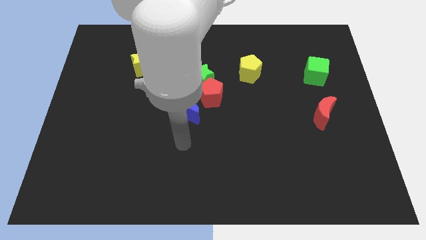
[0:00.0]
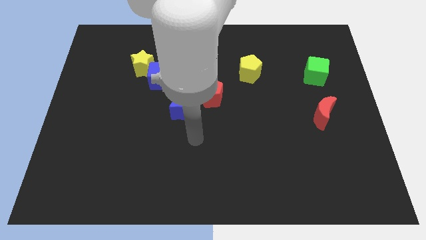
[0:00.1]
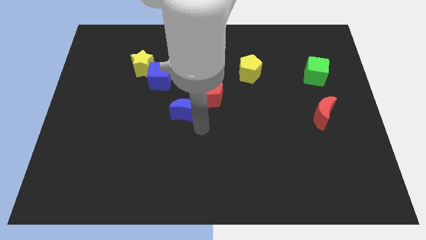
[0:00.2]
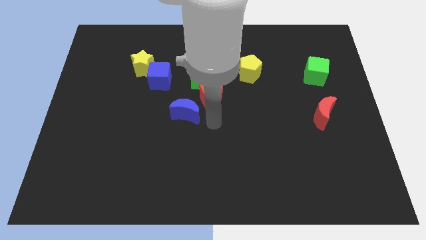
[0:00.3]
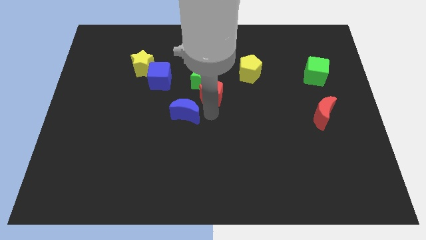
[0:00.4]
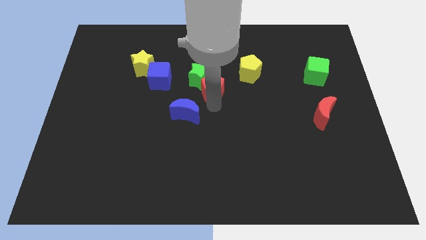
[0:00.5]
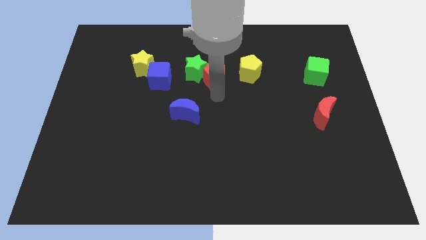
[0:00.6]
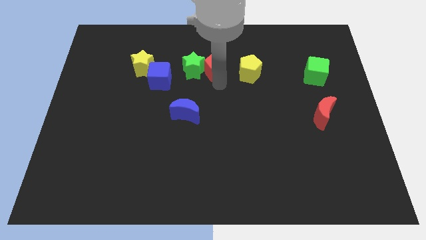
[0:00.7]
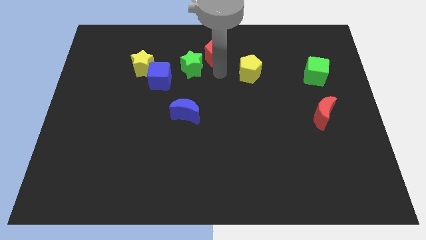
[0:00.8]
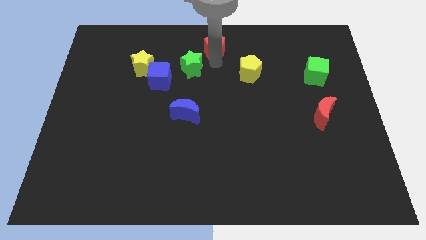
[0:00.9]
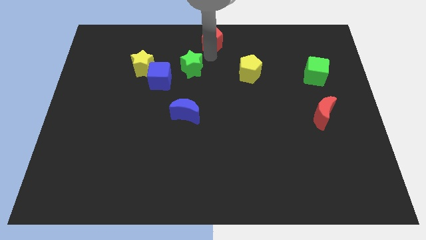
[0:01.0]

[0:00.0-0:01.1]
pull the green star apart from the red pentagon

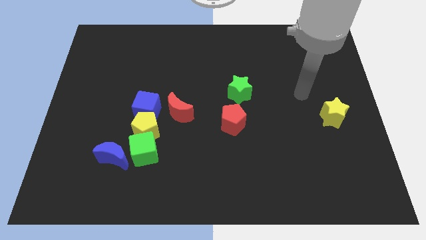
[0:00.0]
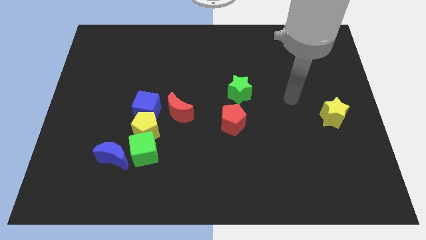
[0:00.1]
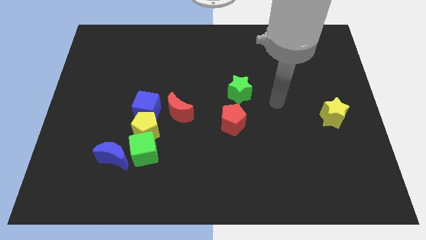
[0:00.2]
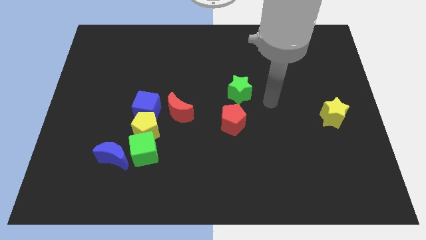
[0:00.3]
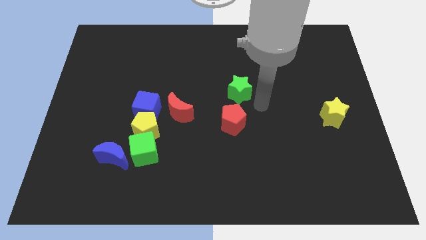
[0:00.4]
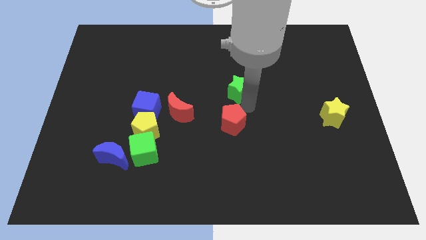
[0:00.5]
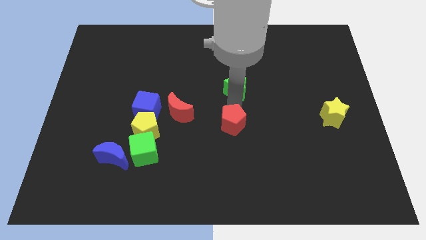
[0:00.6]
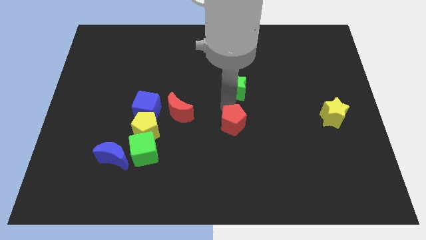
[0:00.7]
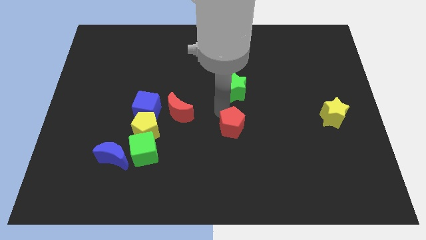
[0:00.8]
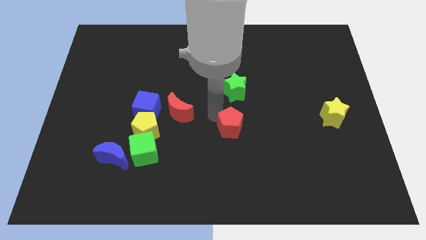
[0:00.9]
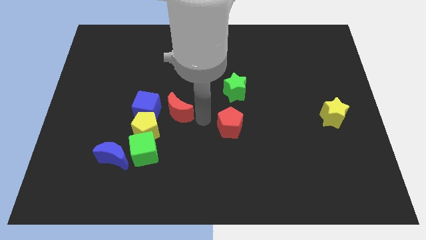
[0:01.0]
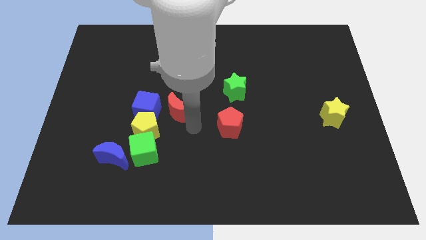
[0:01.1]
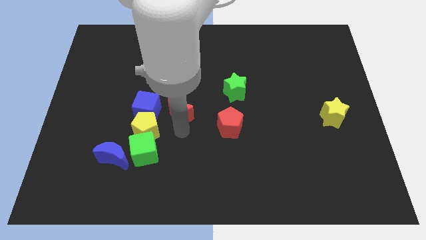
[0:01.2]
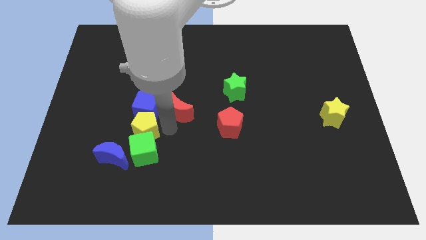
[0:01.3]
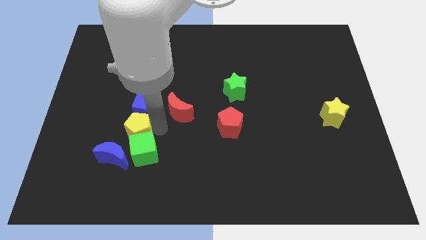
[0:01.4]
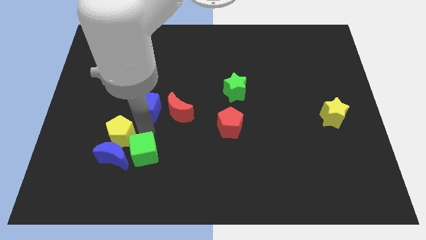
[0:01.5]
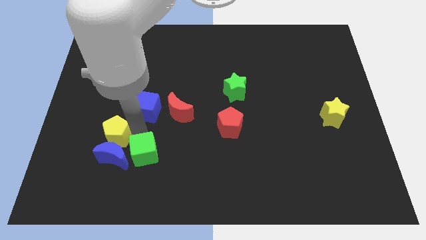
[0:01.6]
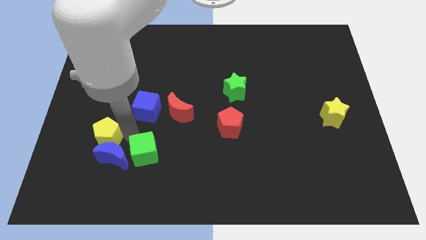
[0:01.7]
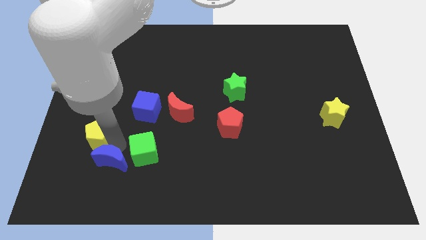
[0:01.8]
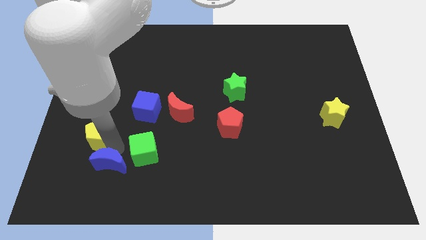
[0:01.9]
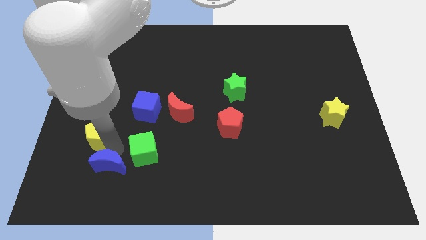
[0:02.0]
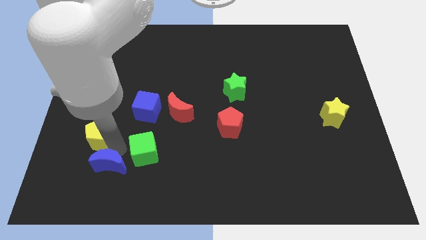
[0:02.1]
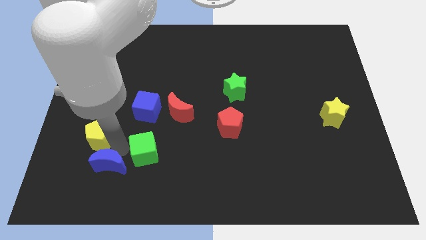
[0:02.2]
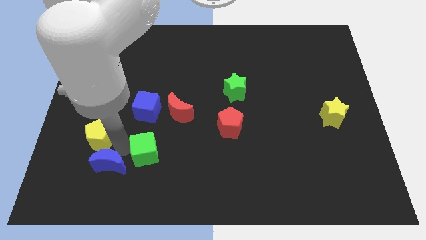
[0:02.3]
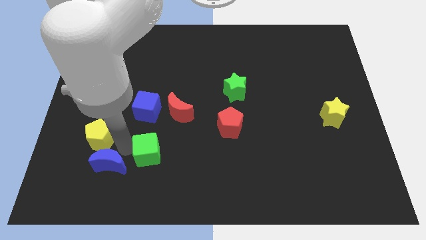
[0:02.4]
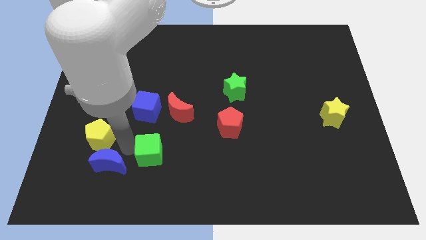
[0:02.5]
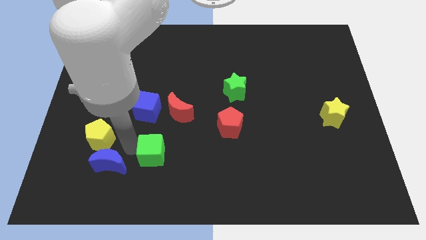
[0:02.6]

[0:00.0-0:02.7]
pull the green cube apart from the yellow pentagon and blue moon

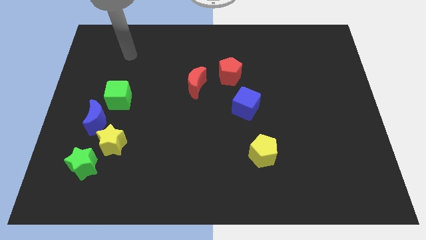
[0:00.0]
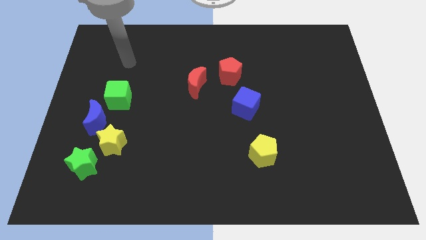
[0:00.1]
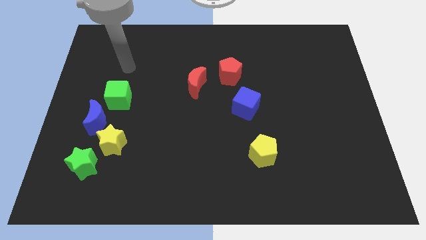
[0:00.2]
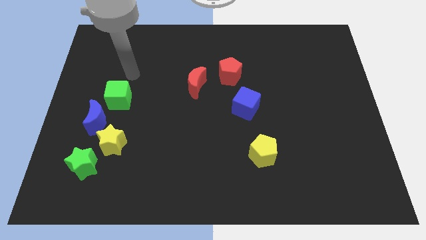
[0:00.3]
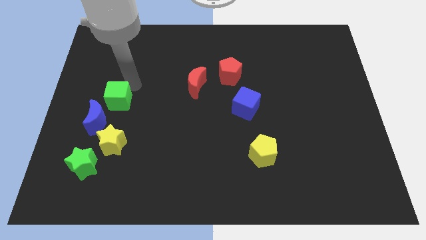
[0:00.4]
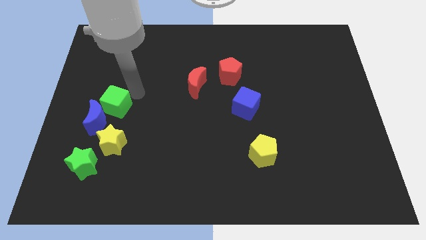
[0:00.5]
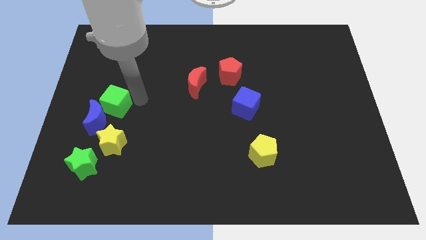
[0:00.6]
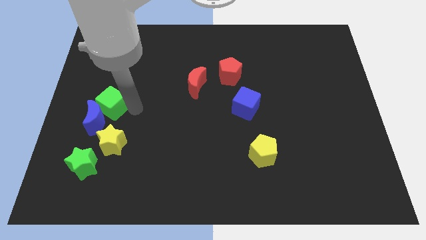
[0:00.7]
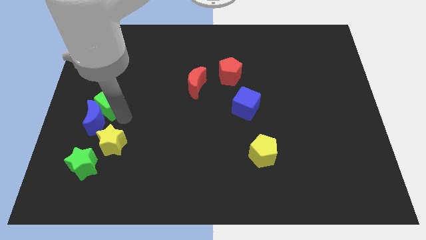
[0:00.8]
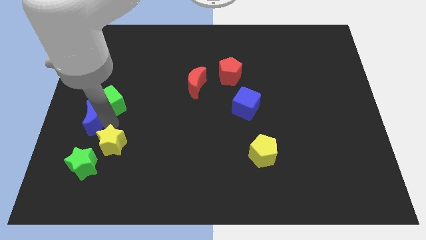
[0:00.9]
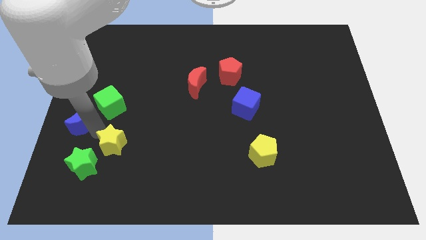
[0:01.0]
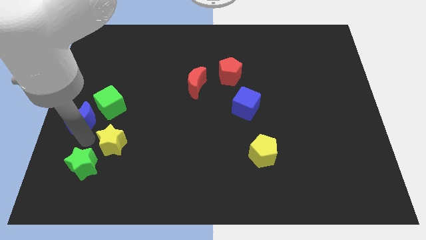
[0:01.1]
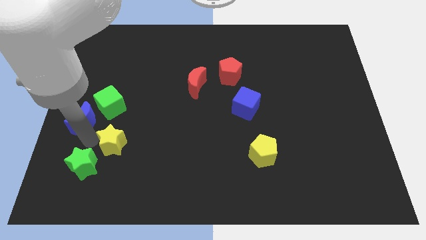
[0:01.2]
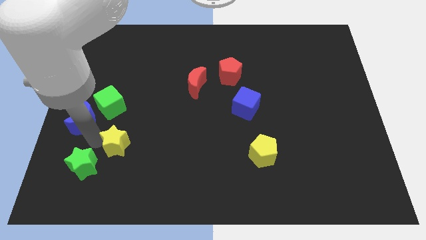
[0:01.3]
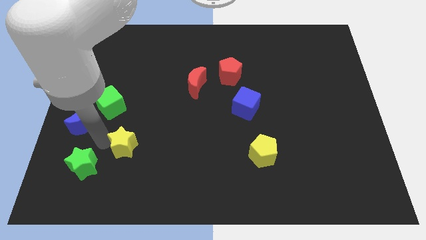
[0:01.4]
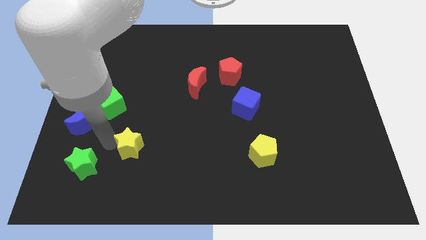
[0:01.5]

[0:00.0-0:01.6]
move the yellow star away from the blue moon and green star

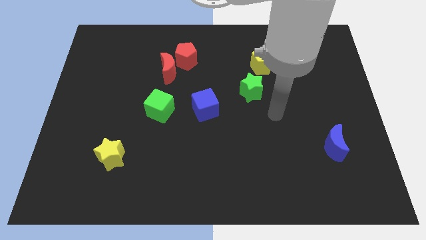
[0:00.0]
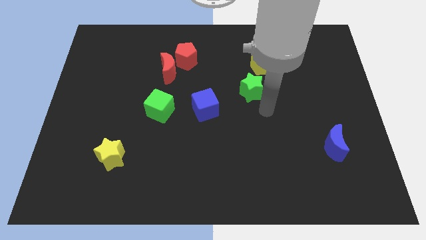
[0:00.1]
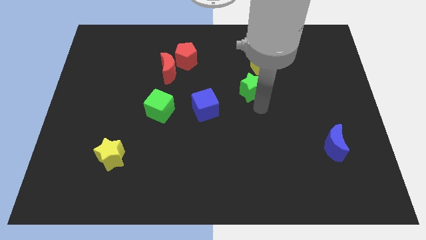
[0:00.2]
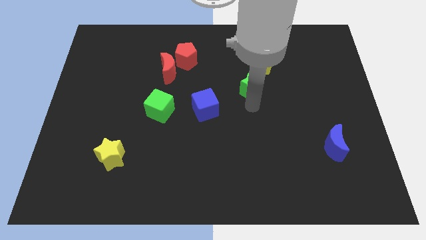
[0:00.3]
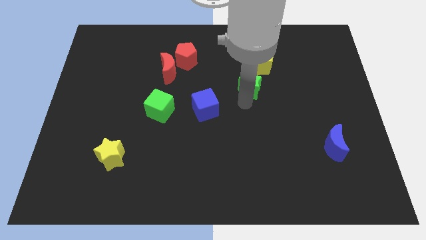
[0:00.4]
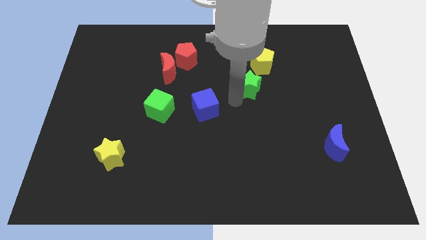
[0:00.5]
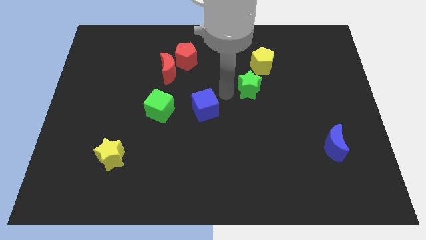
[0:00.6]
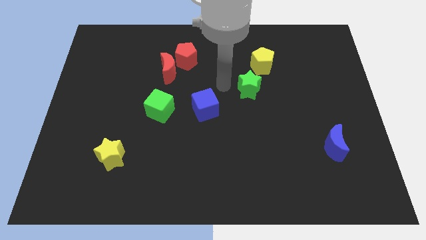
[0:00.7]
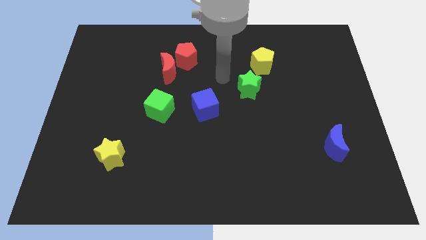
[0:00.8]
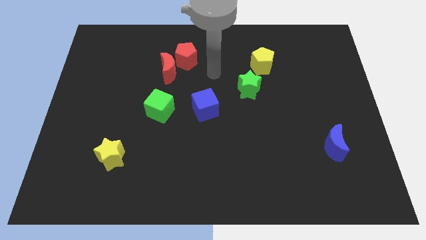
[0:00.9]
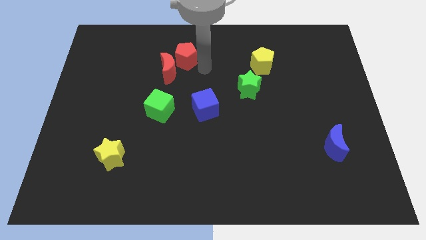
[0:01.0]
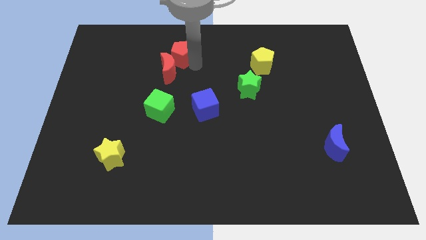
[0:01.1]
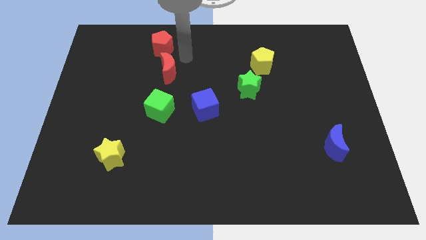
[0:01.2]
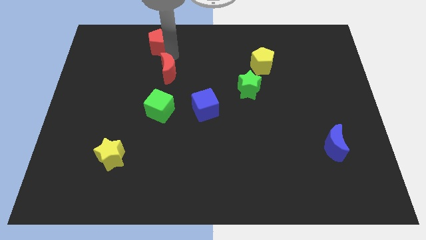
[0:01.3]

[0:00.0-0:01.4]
move the red moon away from the red pentagon

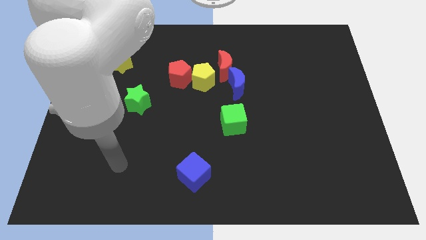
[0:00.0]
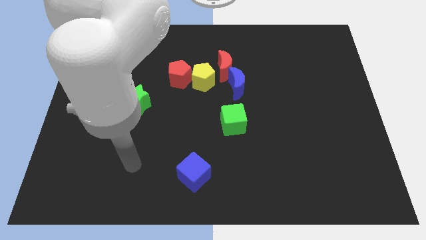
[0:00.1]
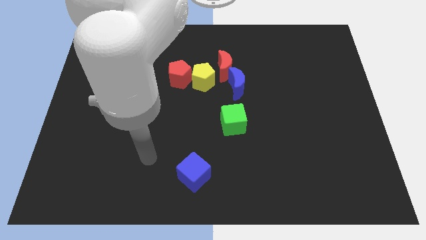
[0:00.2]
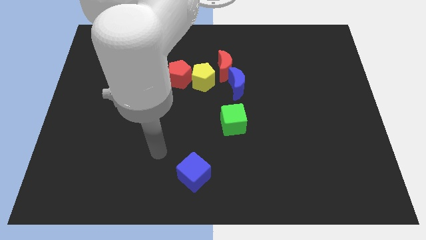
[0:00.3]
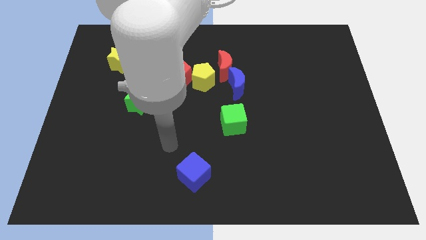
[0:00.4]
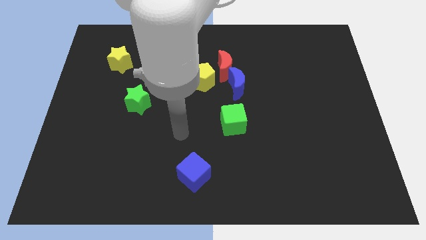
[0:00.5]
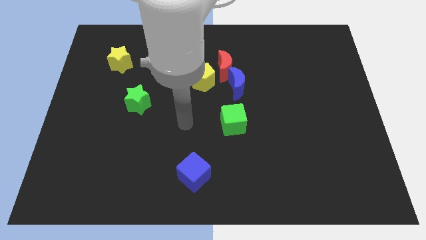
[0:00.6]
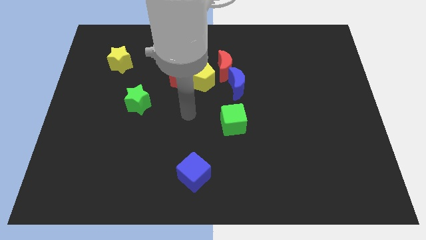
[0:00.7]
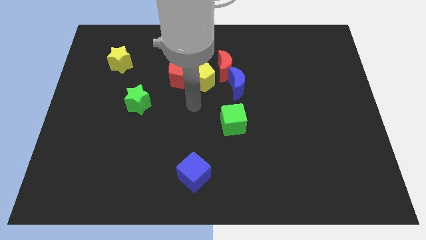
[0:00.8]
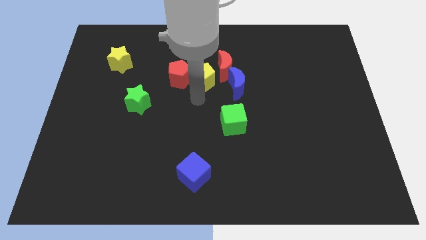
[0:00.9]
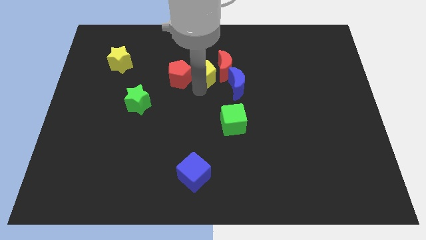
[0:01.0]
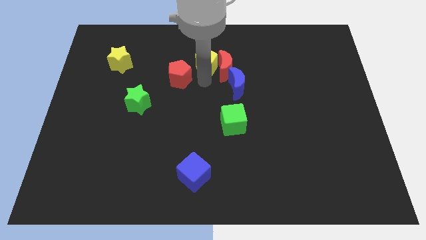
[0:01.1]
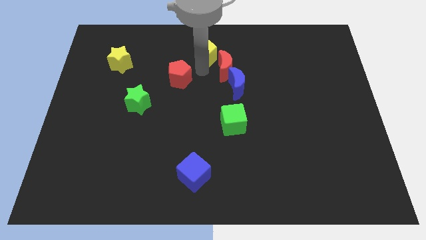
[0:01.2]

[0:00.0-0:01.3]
move the red pentagon away from the yellow pentagon

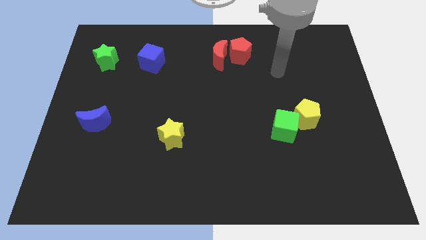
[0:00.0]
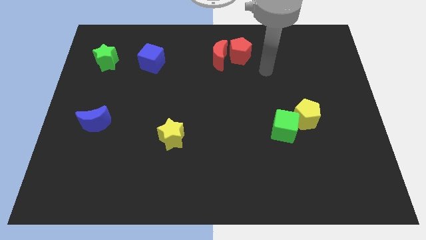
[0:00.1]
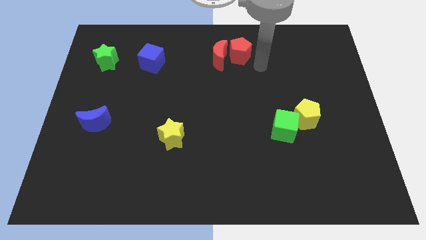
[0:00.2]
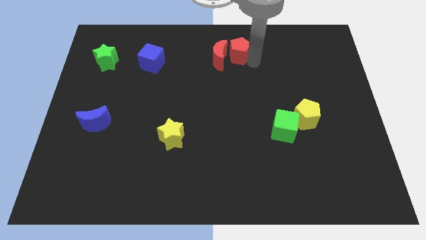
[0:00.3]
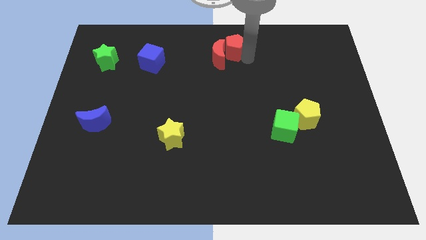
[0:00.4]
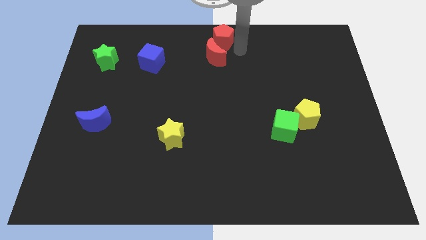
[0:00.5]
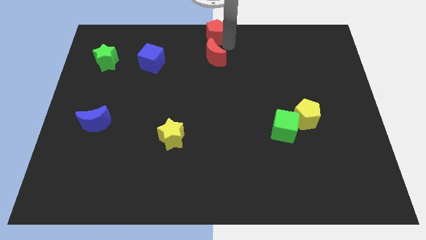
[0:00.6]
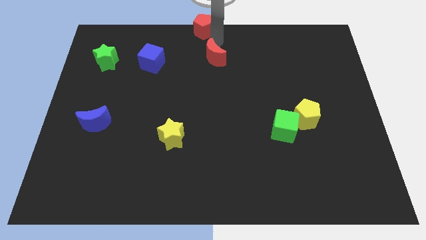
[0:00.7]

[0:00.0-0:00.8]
separate the red moon from the red pentagon

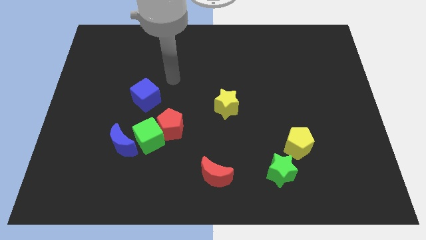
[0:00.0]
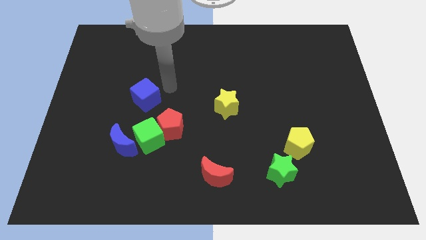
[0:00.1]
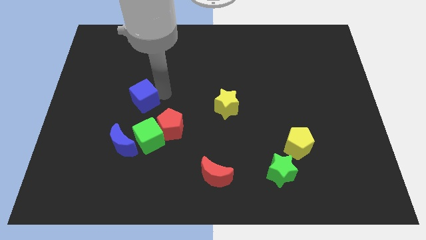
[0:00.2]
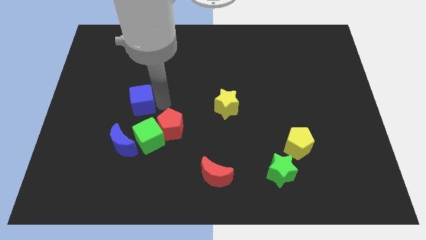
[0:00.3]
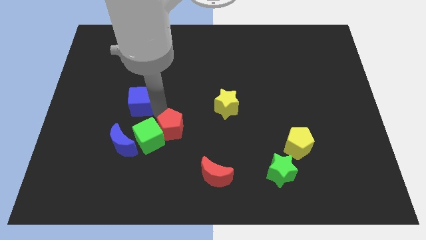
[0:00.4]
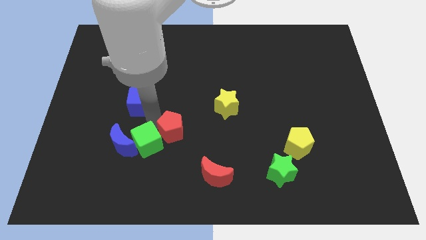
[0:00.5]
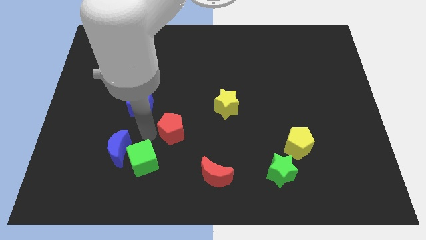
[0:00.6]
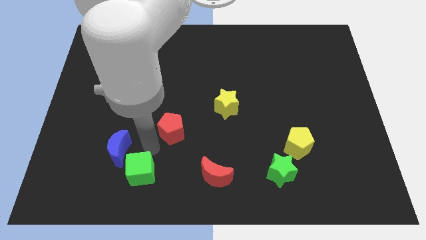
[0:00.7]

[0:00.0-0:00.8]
separate the red pentagon from the green cube
